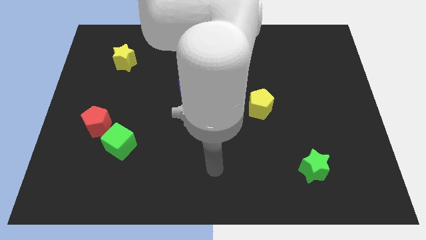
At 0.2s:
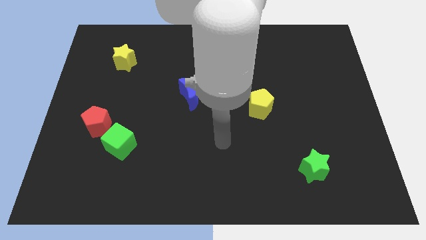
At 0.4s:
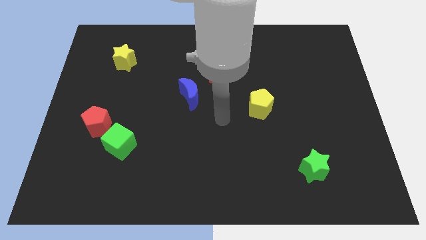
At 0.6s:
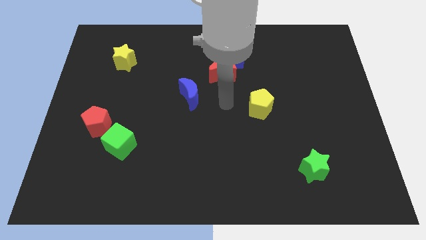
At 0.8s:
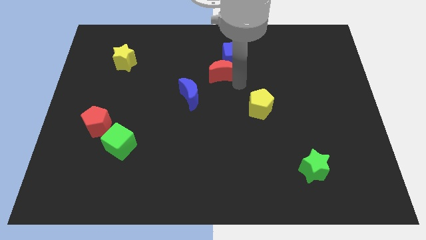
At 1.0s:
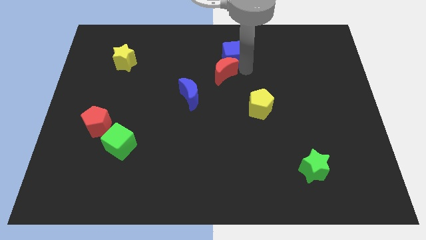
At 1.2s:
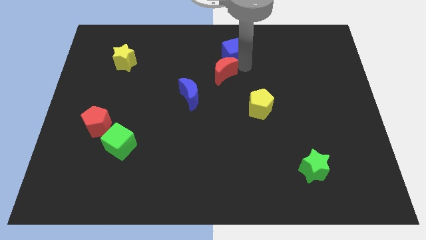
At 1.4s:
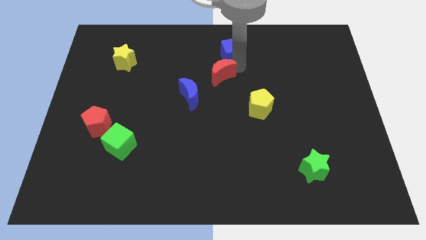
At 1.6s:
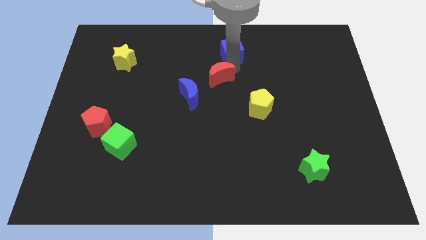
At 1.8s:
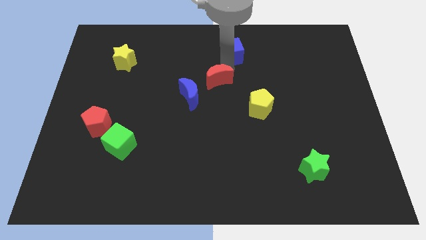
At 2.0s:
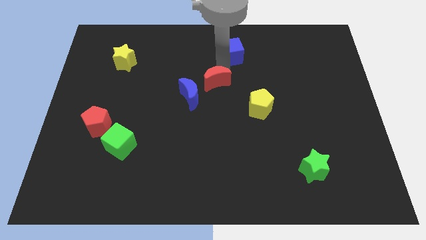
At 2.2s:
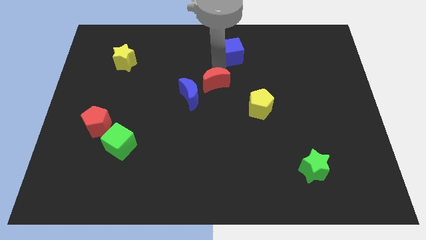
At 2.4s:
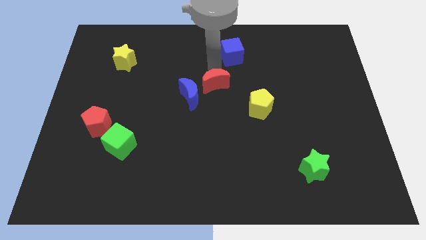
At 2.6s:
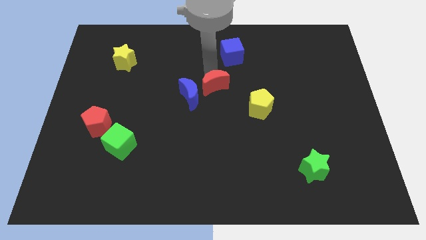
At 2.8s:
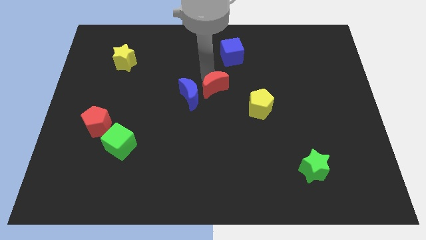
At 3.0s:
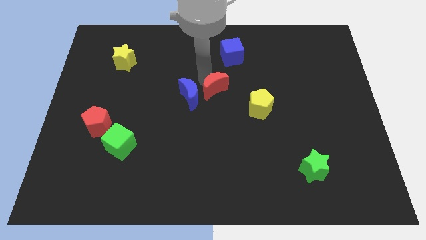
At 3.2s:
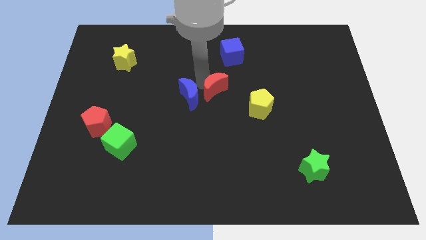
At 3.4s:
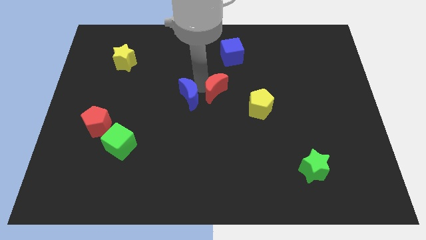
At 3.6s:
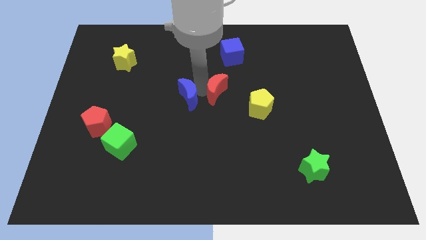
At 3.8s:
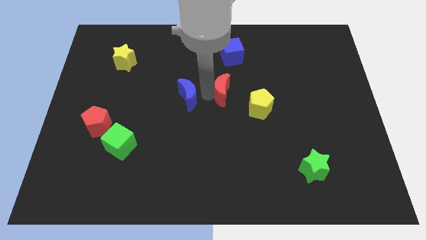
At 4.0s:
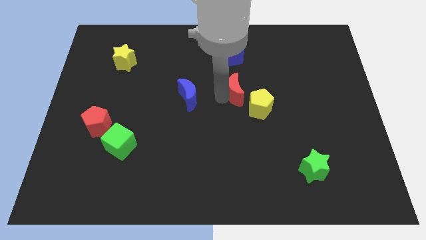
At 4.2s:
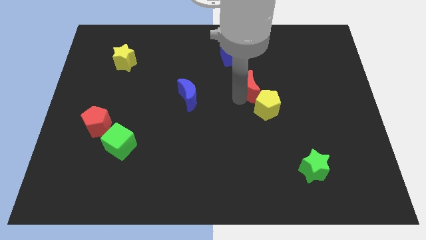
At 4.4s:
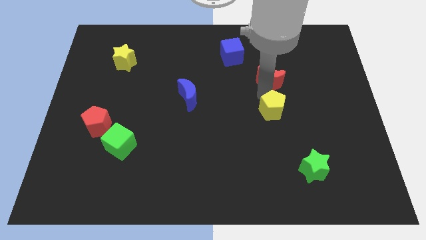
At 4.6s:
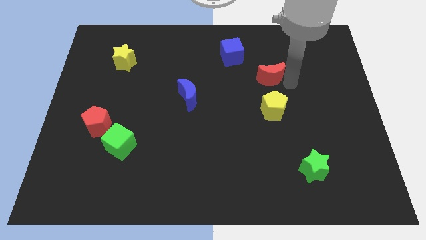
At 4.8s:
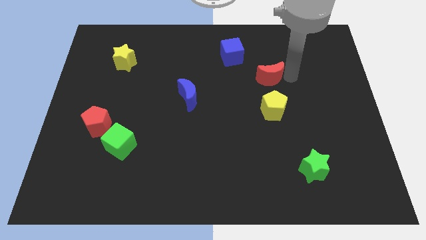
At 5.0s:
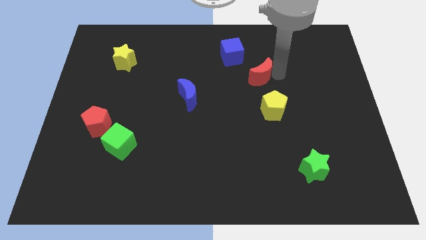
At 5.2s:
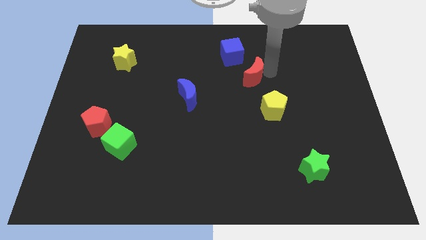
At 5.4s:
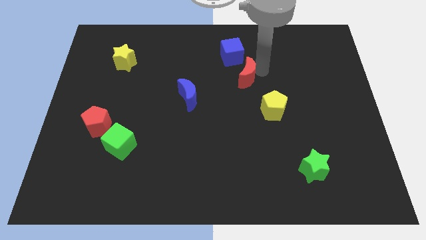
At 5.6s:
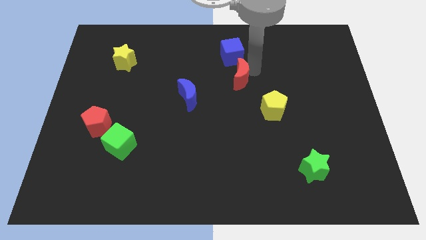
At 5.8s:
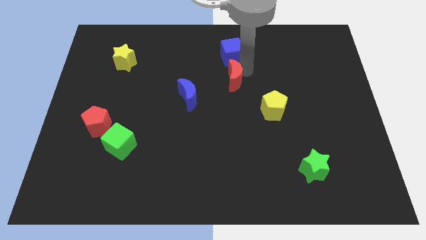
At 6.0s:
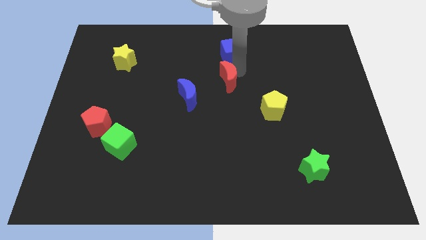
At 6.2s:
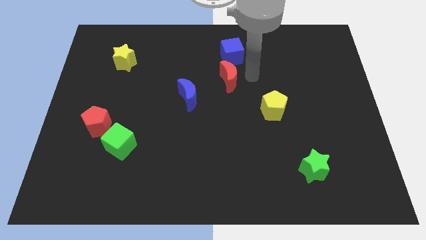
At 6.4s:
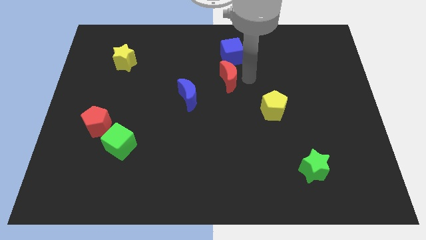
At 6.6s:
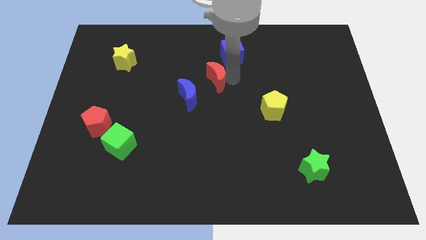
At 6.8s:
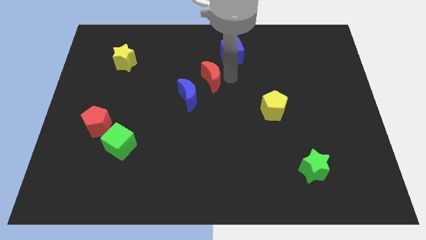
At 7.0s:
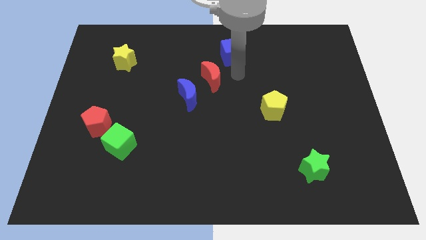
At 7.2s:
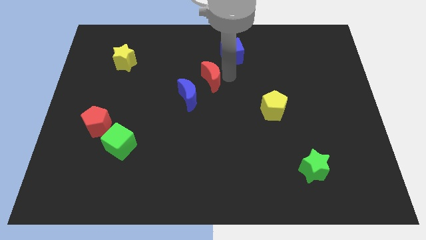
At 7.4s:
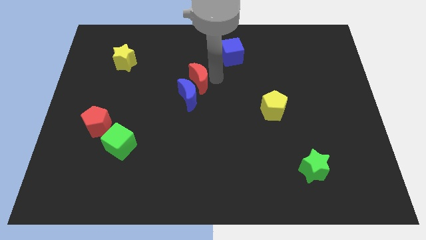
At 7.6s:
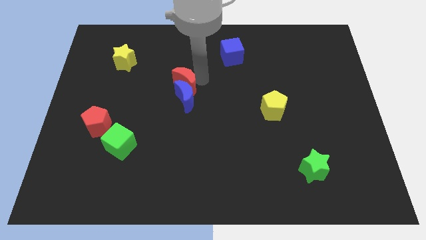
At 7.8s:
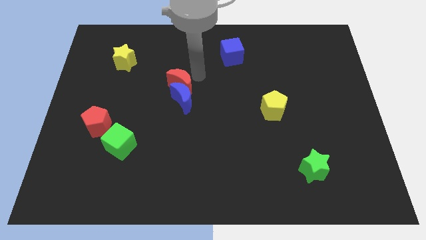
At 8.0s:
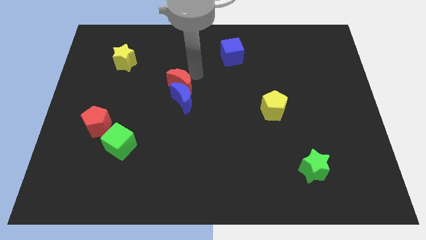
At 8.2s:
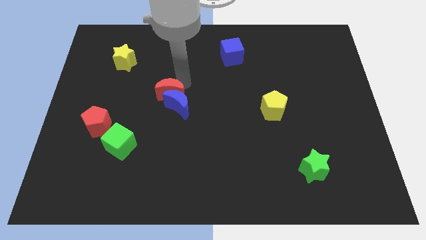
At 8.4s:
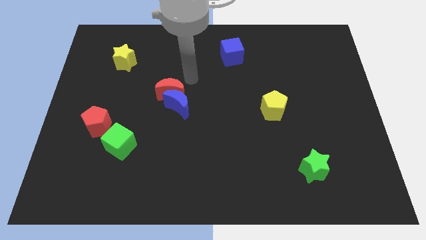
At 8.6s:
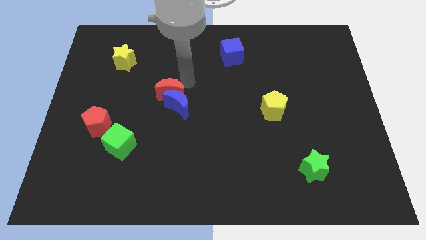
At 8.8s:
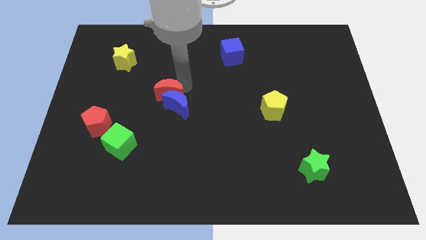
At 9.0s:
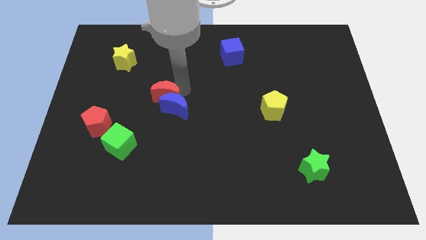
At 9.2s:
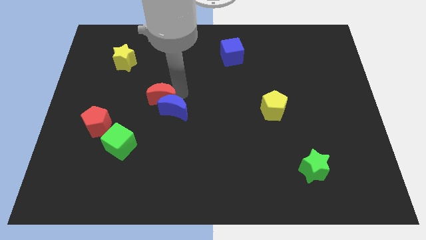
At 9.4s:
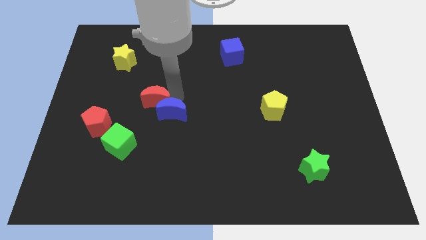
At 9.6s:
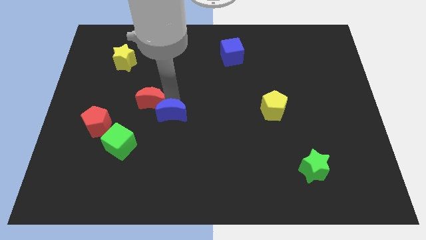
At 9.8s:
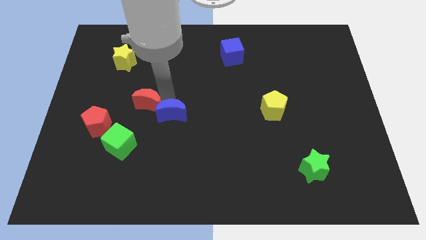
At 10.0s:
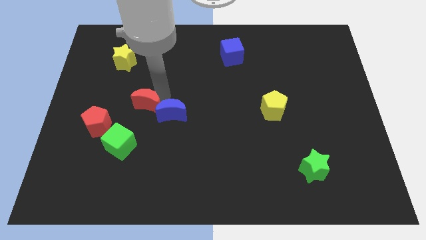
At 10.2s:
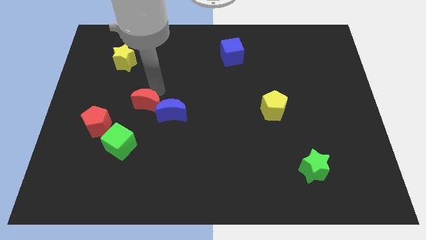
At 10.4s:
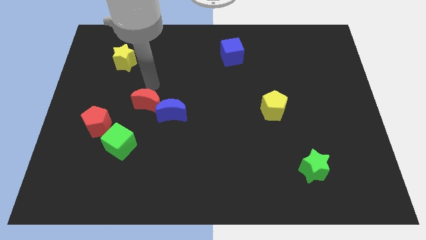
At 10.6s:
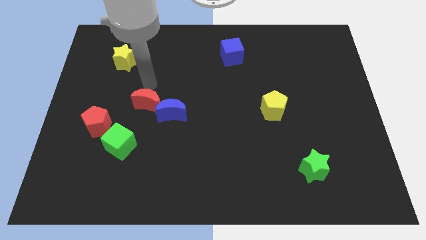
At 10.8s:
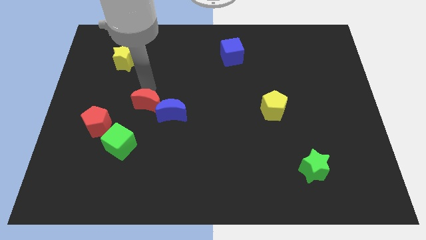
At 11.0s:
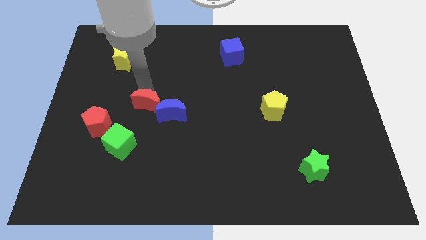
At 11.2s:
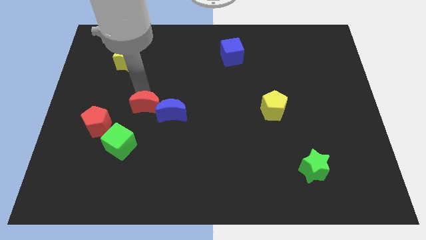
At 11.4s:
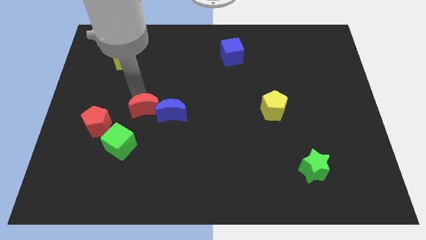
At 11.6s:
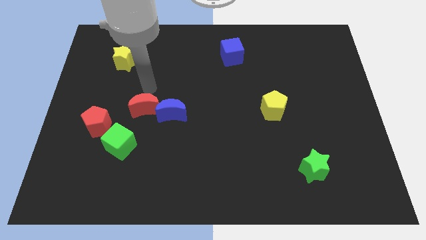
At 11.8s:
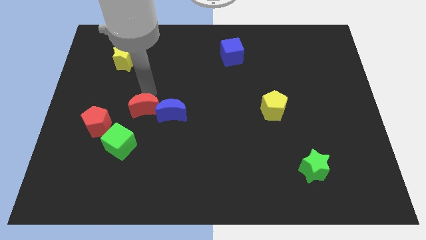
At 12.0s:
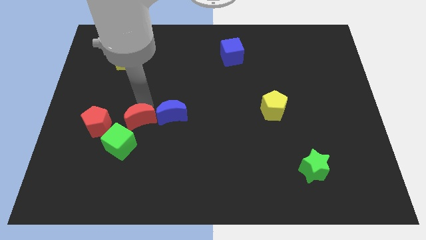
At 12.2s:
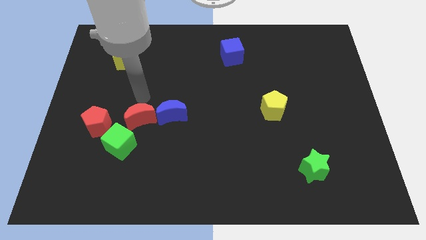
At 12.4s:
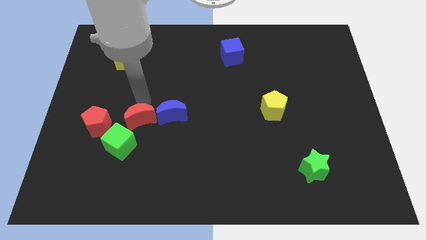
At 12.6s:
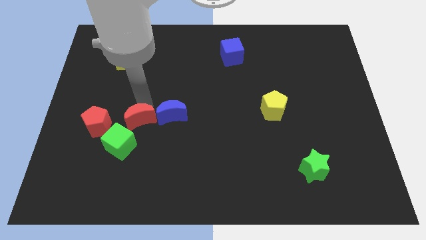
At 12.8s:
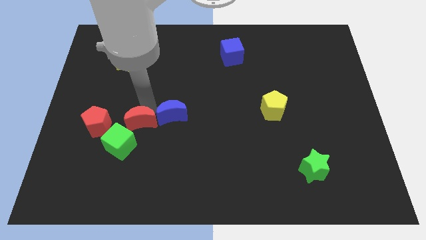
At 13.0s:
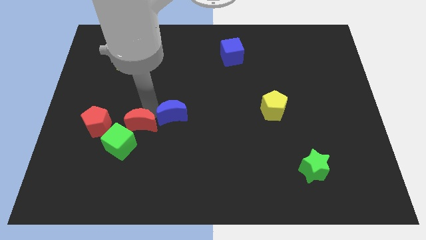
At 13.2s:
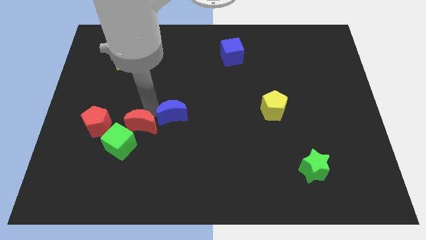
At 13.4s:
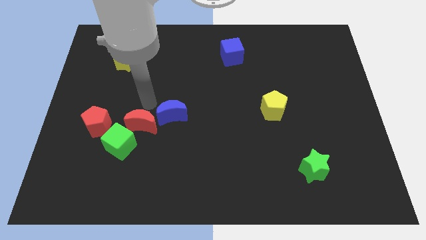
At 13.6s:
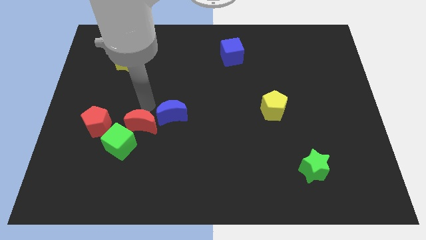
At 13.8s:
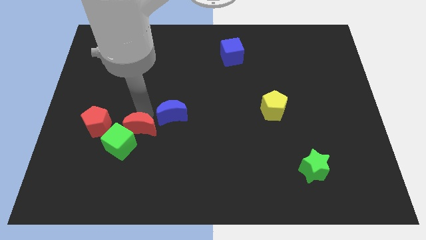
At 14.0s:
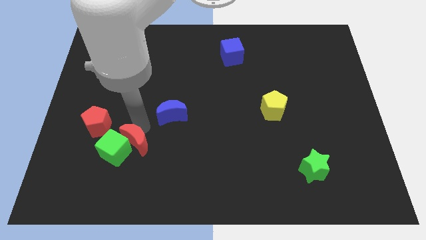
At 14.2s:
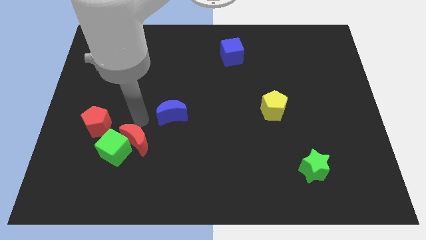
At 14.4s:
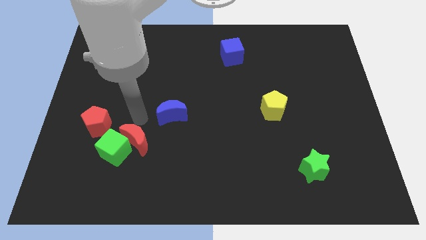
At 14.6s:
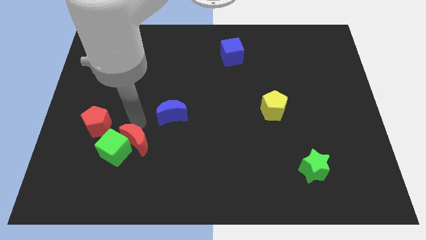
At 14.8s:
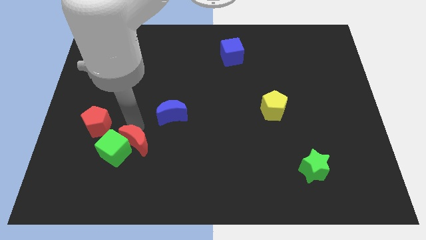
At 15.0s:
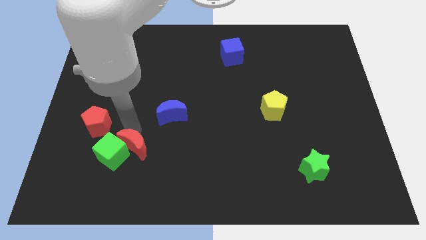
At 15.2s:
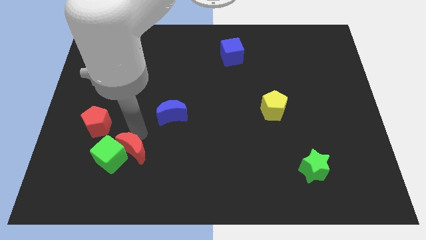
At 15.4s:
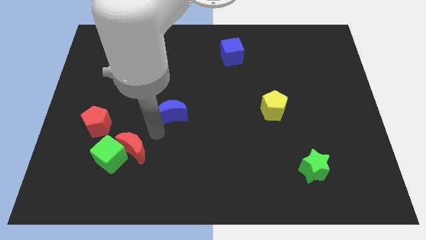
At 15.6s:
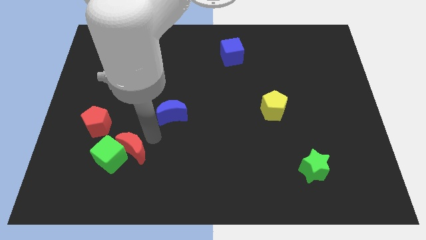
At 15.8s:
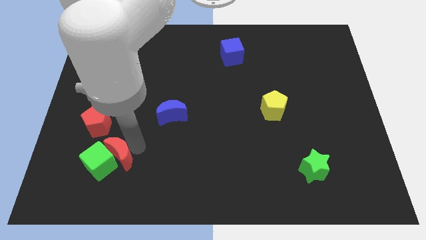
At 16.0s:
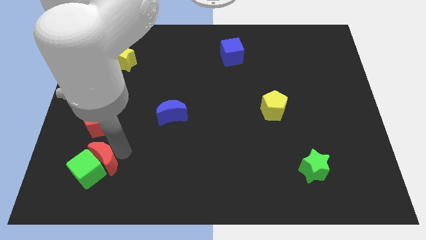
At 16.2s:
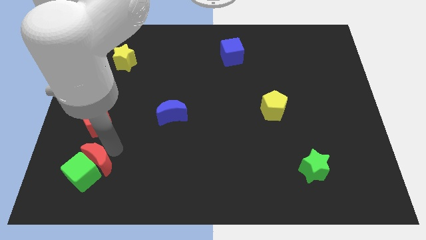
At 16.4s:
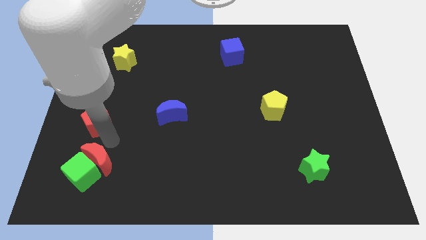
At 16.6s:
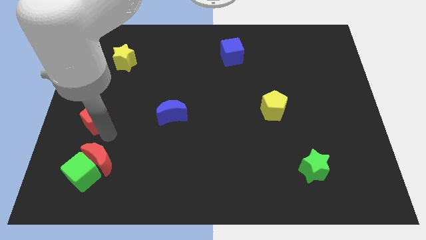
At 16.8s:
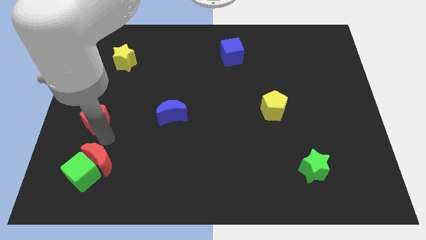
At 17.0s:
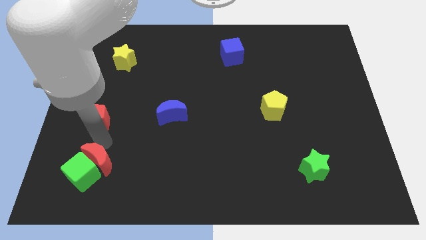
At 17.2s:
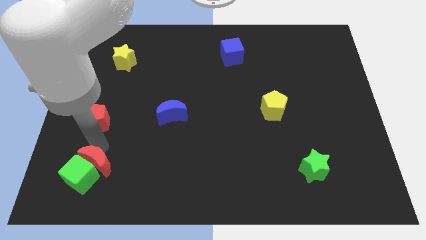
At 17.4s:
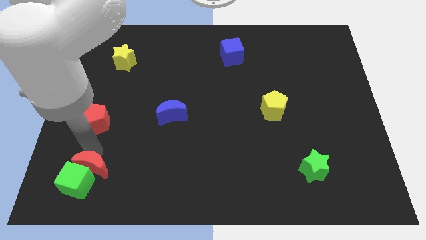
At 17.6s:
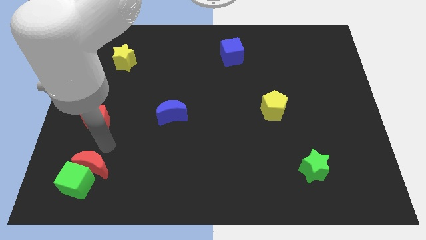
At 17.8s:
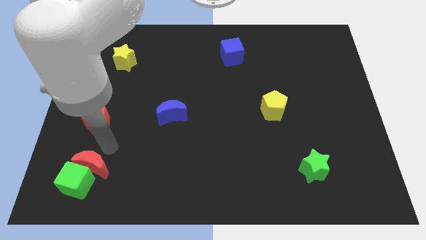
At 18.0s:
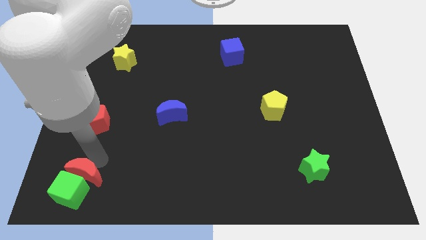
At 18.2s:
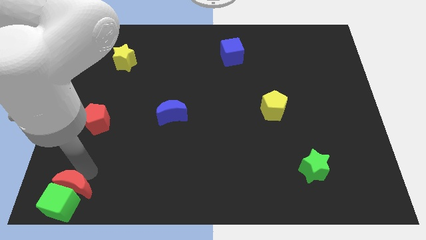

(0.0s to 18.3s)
push the red moon to the bottom left corner
